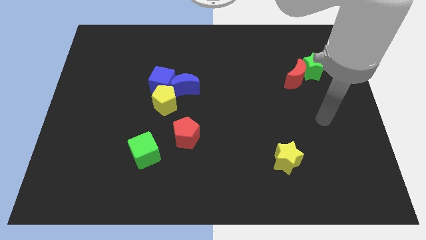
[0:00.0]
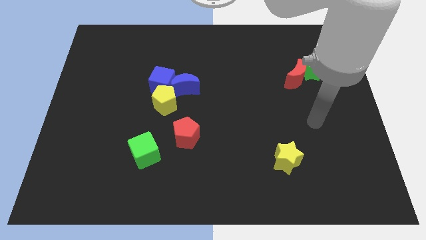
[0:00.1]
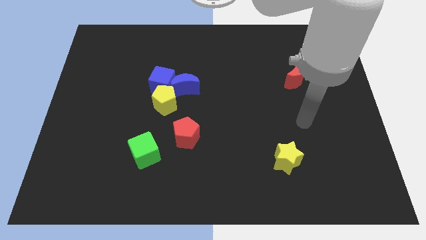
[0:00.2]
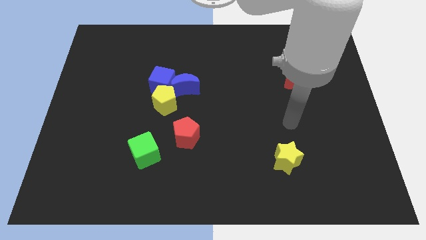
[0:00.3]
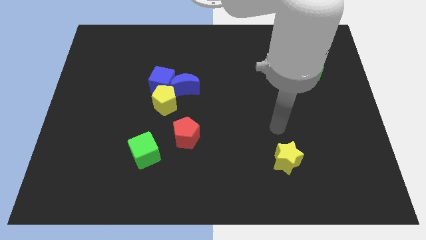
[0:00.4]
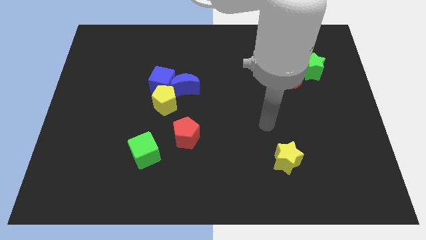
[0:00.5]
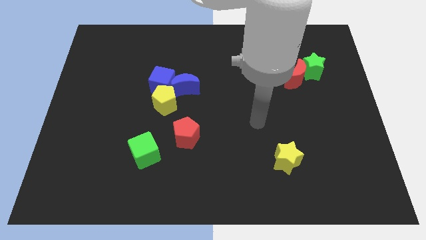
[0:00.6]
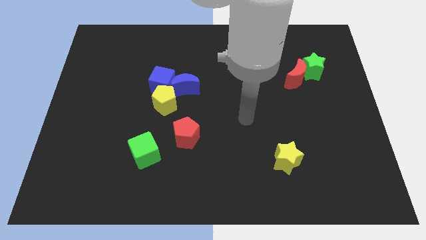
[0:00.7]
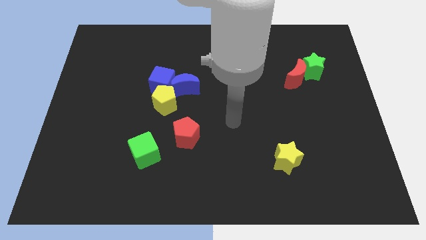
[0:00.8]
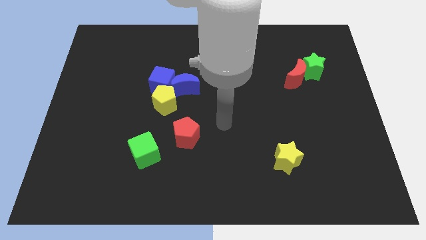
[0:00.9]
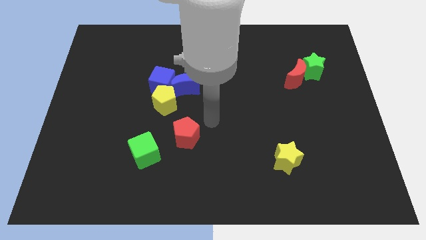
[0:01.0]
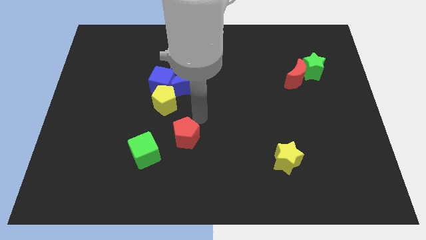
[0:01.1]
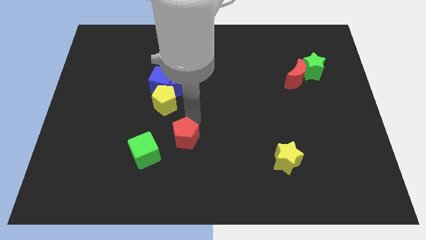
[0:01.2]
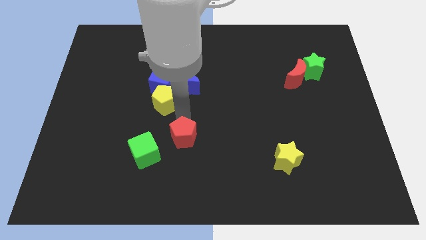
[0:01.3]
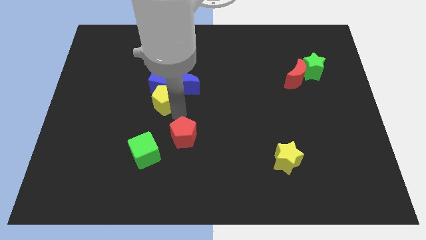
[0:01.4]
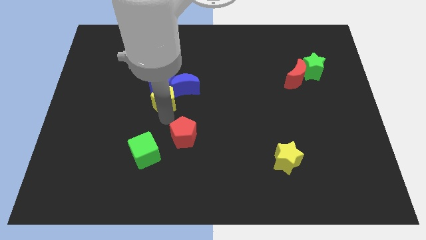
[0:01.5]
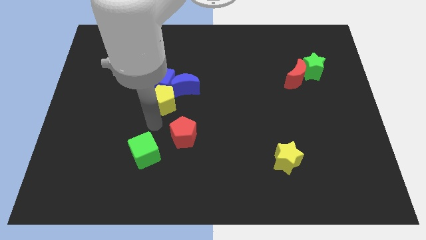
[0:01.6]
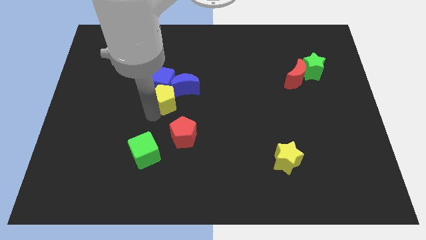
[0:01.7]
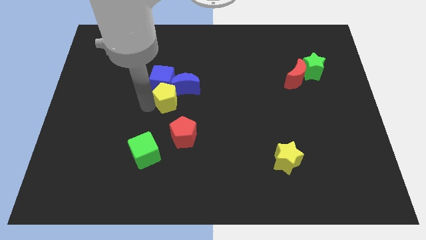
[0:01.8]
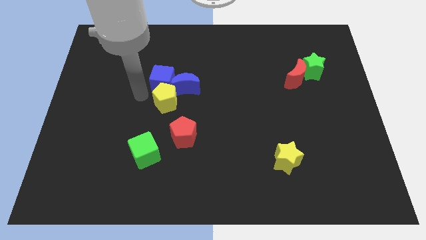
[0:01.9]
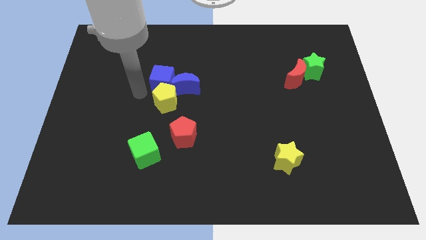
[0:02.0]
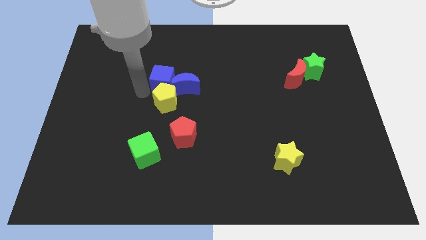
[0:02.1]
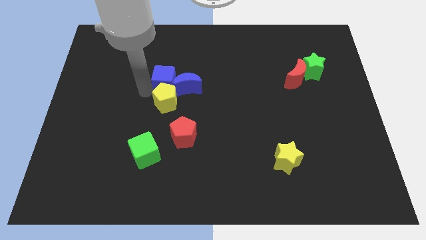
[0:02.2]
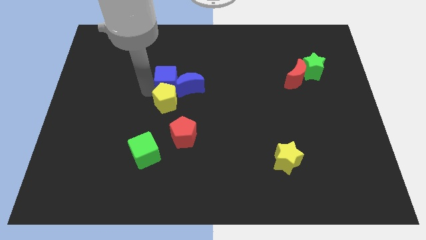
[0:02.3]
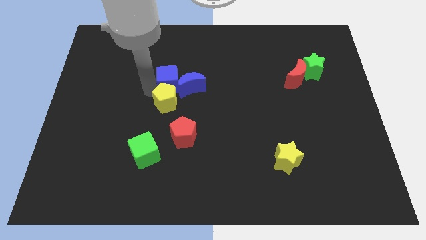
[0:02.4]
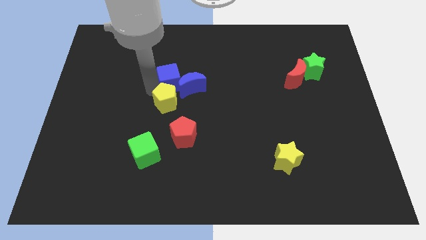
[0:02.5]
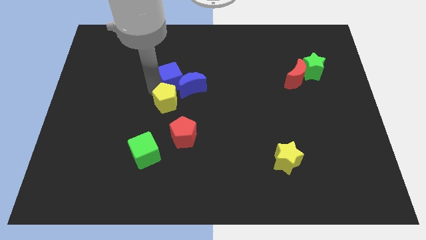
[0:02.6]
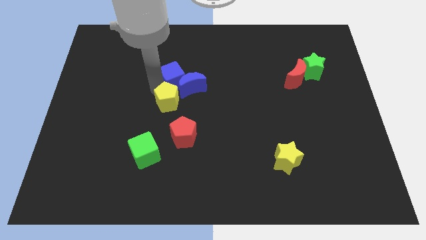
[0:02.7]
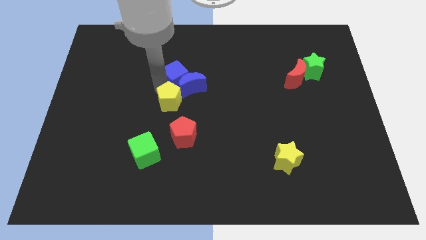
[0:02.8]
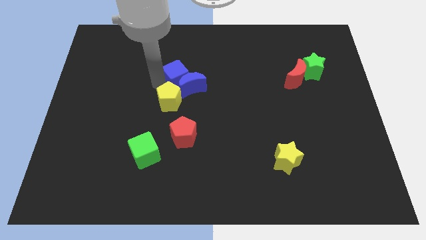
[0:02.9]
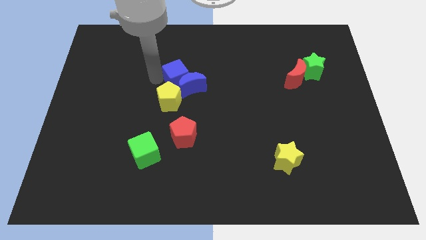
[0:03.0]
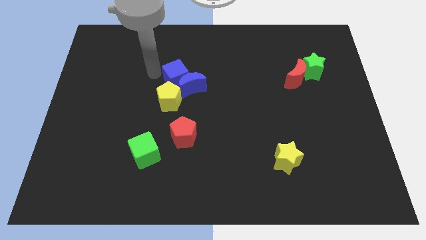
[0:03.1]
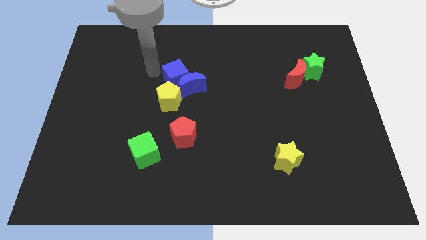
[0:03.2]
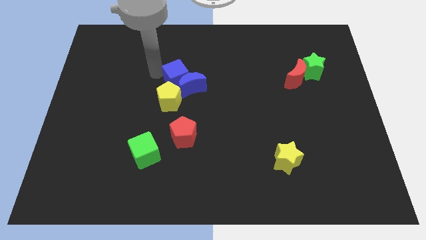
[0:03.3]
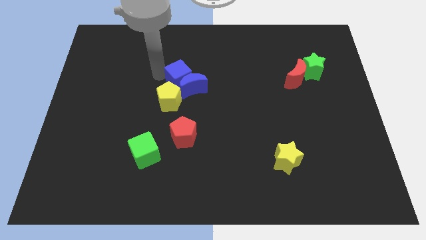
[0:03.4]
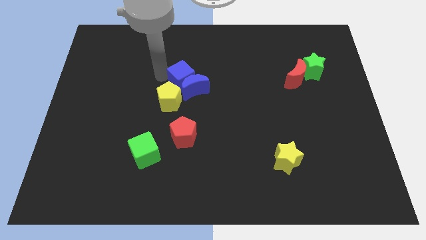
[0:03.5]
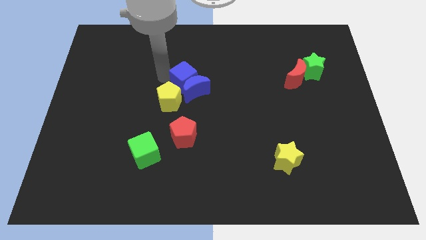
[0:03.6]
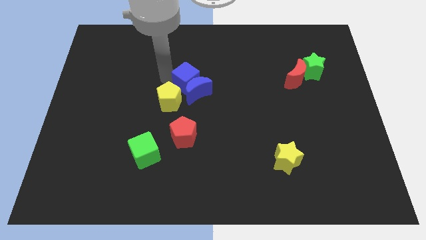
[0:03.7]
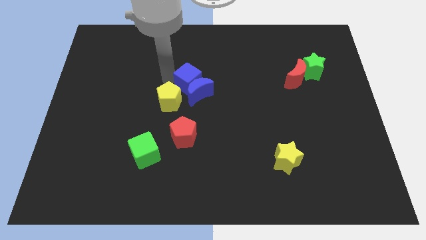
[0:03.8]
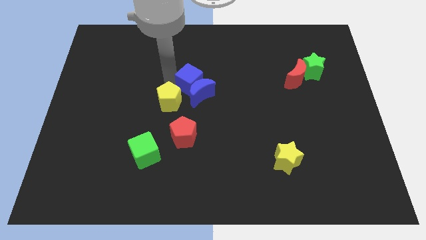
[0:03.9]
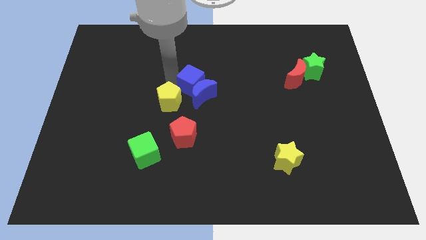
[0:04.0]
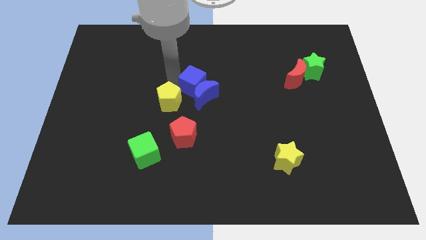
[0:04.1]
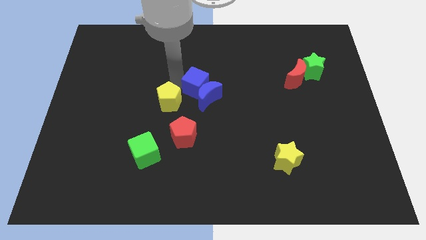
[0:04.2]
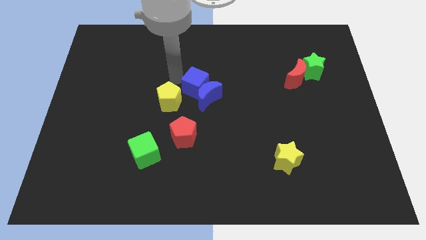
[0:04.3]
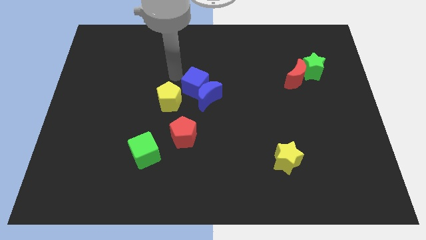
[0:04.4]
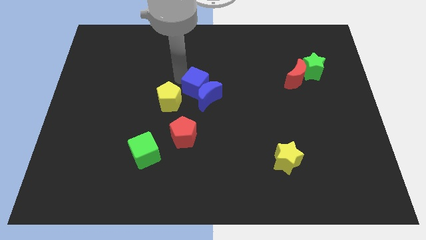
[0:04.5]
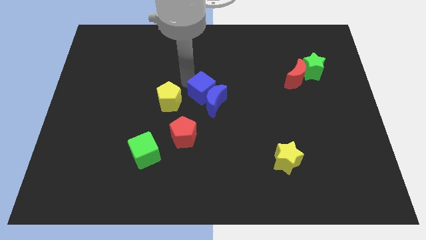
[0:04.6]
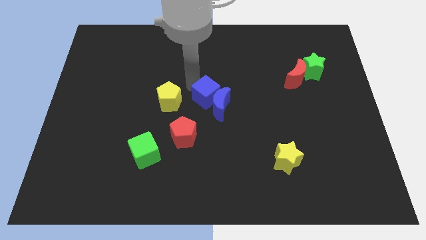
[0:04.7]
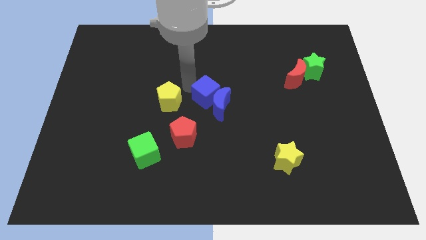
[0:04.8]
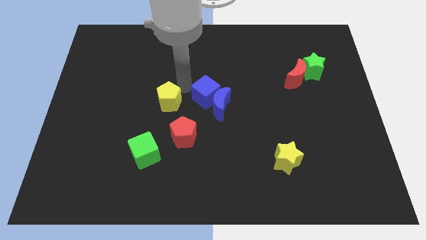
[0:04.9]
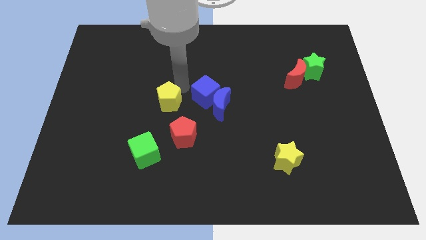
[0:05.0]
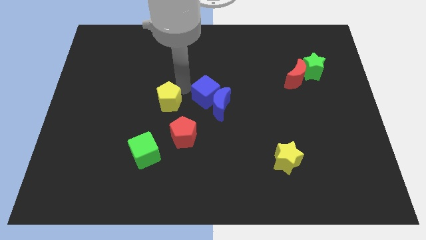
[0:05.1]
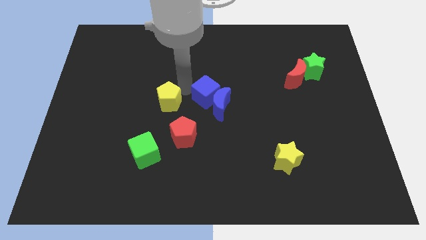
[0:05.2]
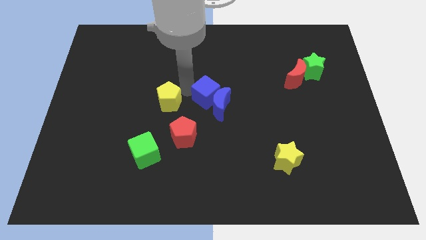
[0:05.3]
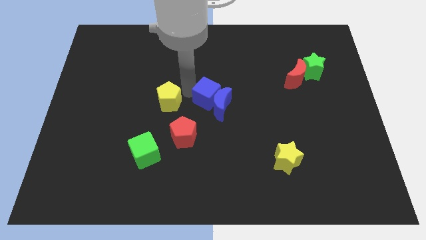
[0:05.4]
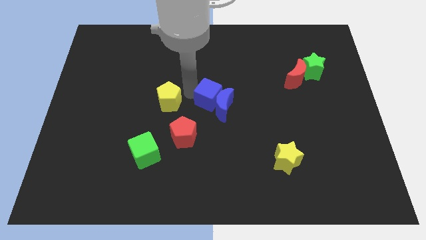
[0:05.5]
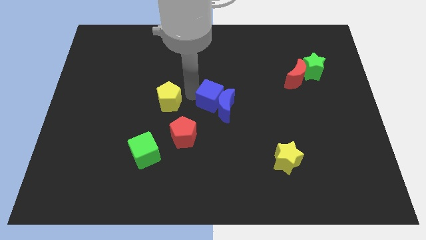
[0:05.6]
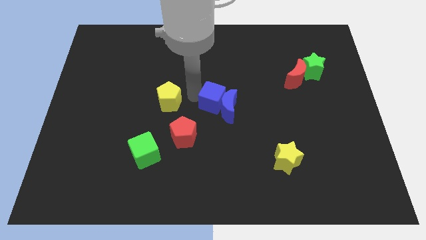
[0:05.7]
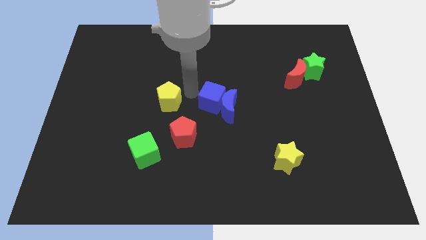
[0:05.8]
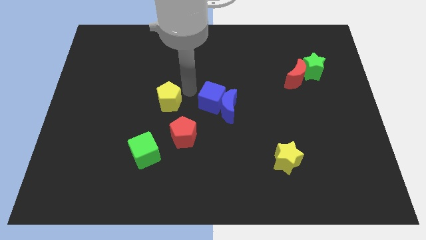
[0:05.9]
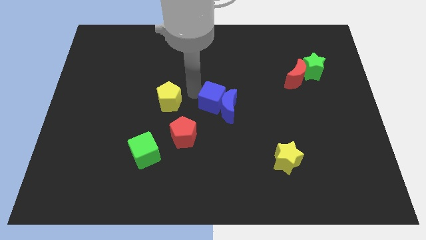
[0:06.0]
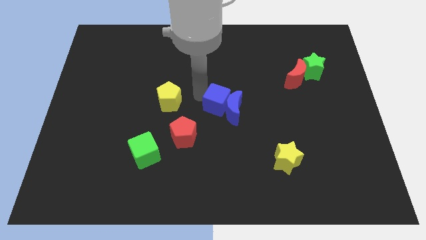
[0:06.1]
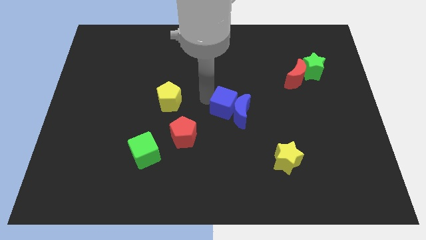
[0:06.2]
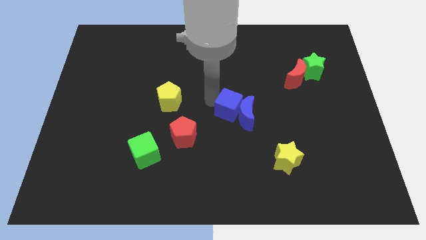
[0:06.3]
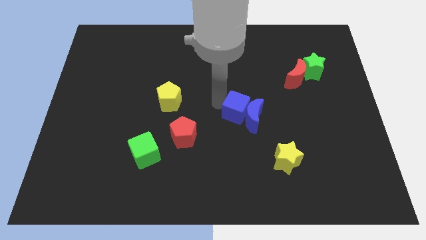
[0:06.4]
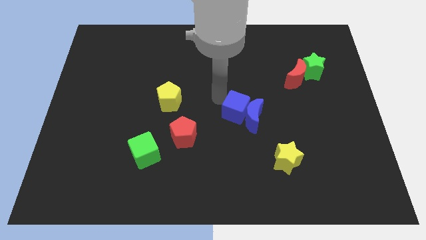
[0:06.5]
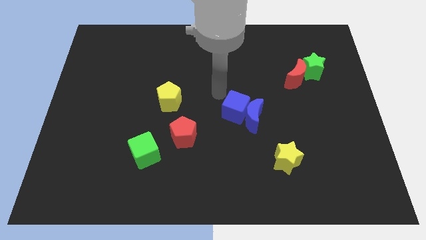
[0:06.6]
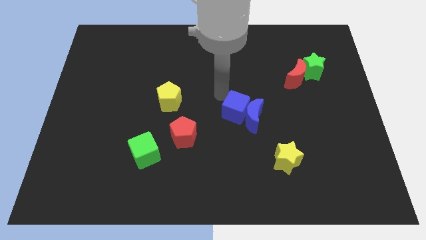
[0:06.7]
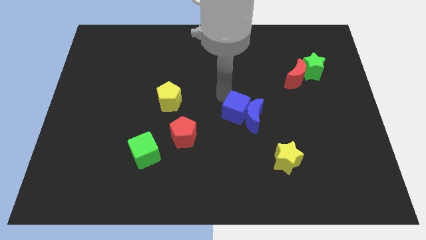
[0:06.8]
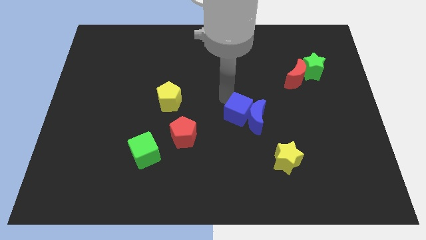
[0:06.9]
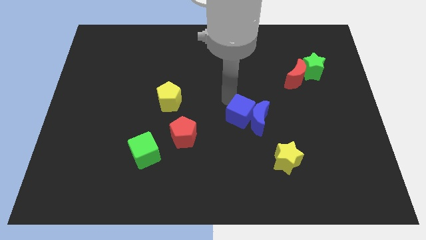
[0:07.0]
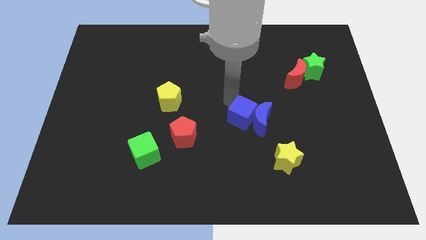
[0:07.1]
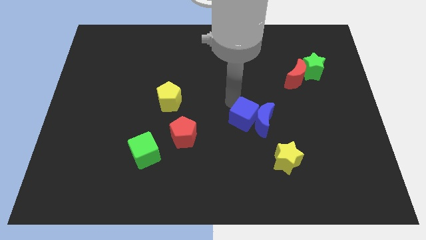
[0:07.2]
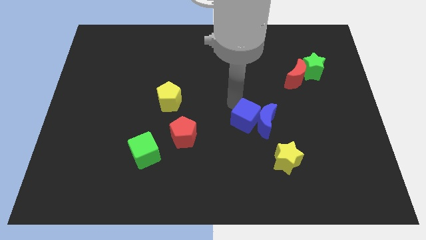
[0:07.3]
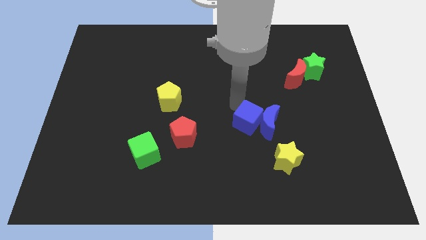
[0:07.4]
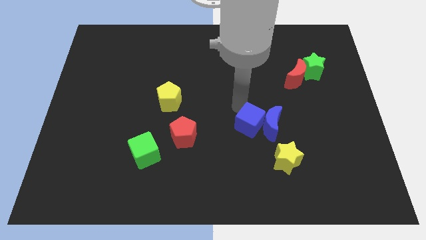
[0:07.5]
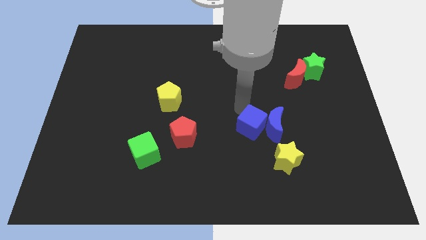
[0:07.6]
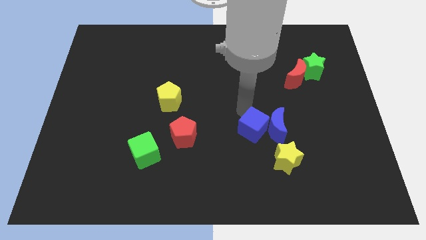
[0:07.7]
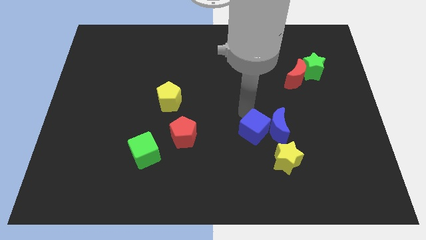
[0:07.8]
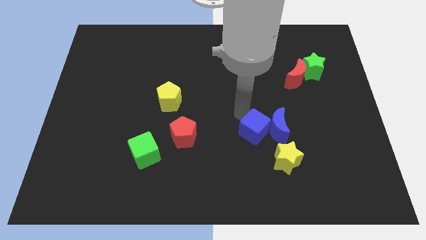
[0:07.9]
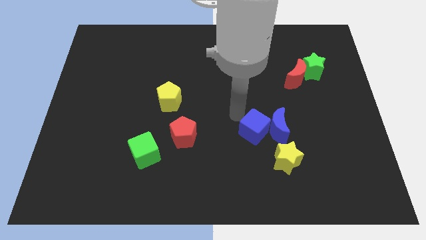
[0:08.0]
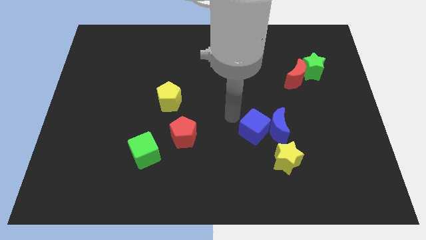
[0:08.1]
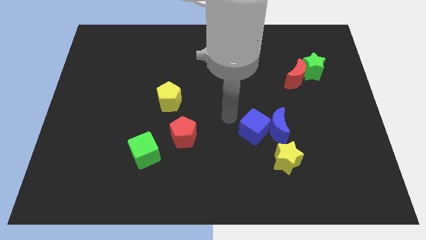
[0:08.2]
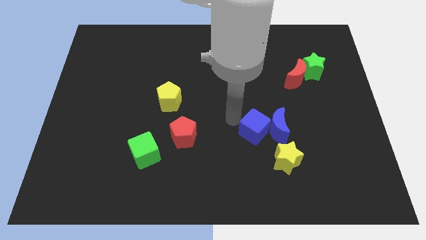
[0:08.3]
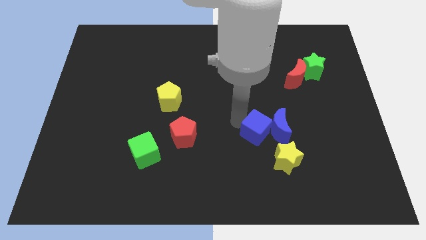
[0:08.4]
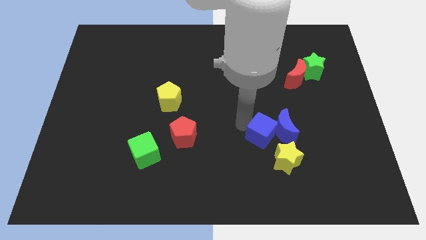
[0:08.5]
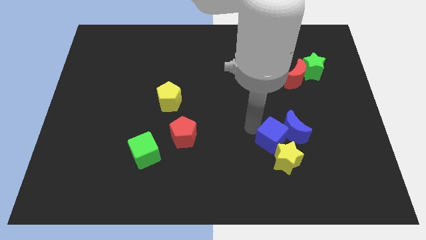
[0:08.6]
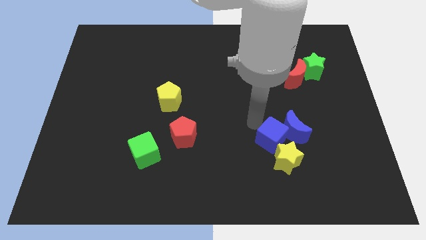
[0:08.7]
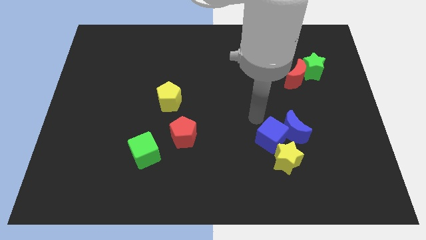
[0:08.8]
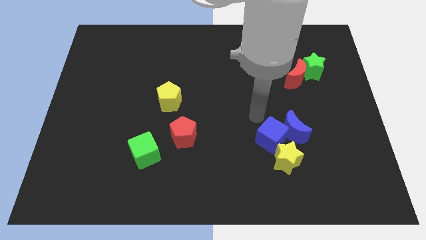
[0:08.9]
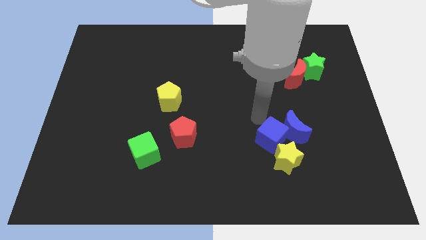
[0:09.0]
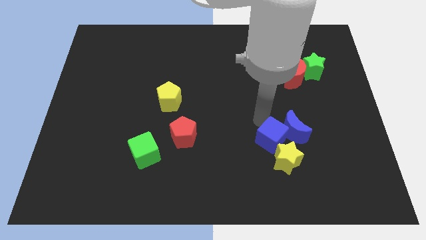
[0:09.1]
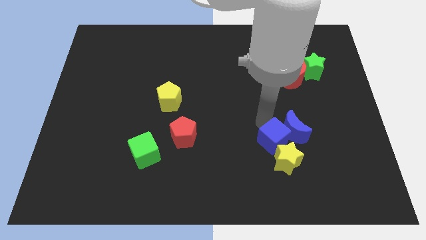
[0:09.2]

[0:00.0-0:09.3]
push the blue cube next to the yellow star
